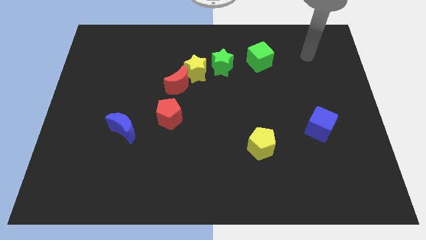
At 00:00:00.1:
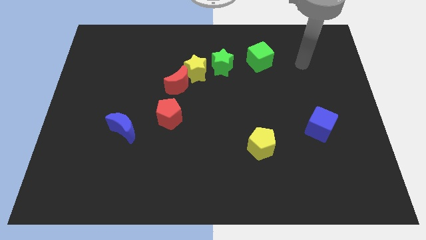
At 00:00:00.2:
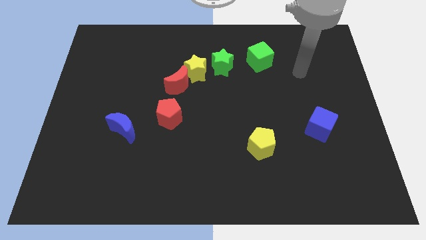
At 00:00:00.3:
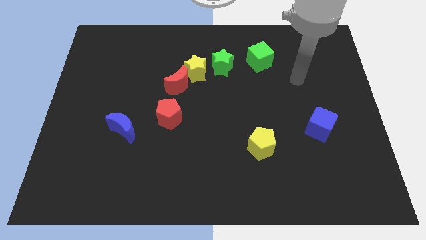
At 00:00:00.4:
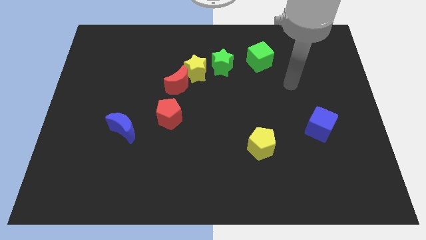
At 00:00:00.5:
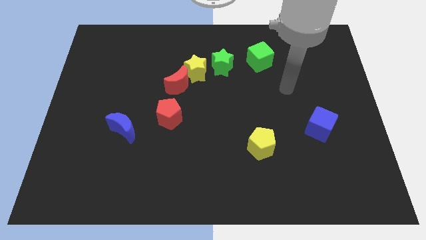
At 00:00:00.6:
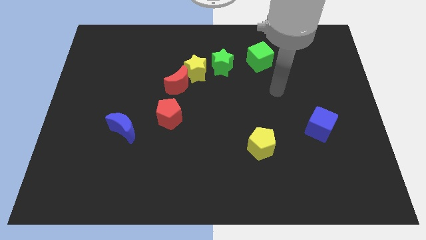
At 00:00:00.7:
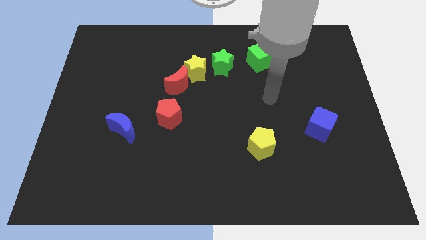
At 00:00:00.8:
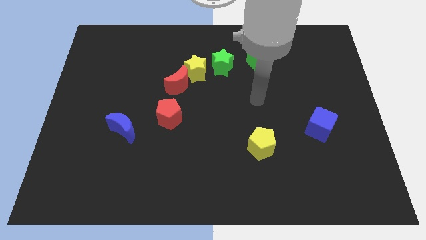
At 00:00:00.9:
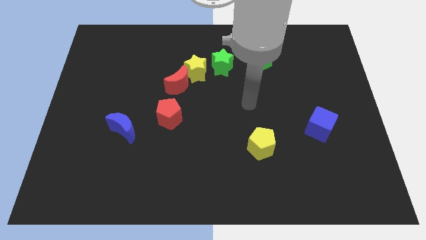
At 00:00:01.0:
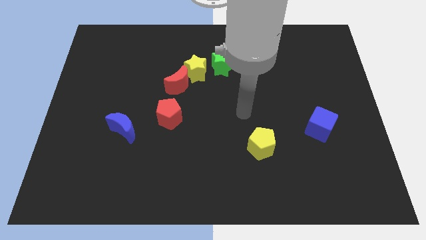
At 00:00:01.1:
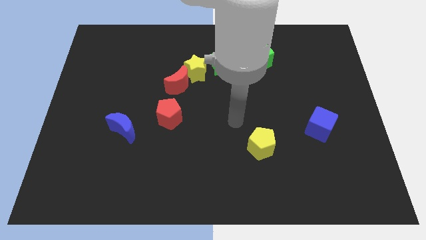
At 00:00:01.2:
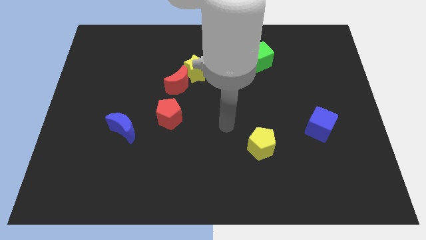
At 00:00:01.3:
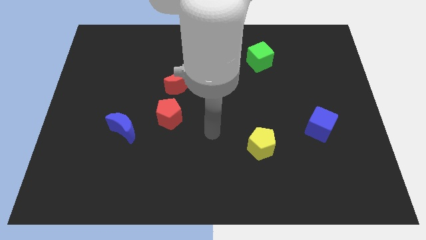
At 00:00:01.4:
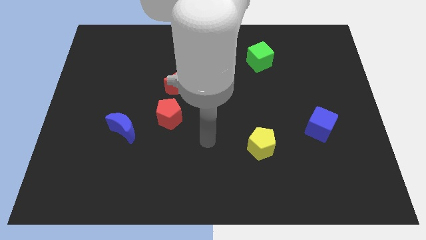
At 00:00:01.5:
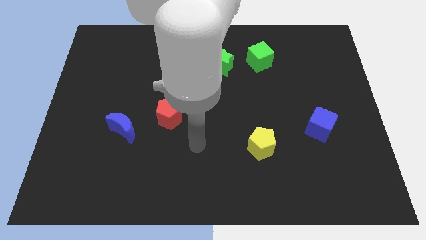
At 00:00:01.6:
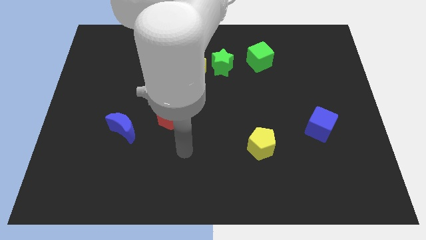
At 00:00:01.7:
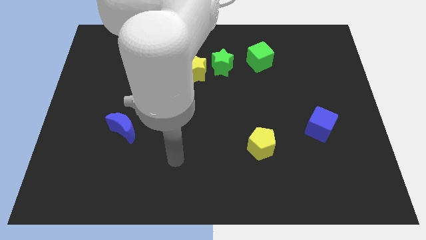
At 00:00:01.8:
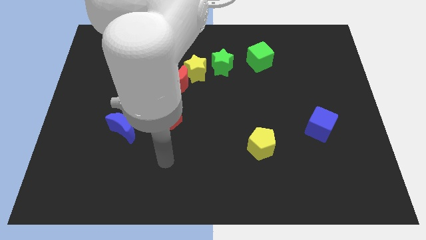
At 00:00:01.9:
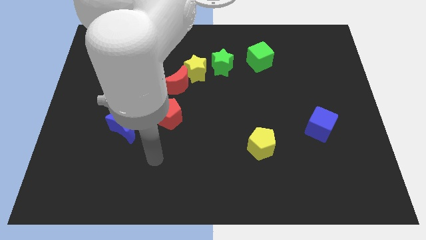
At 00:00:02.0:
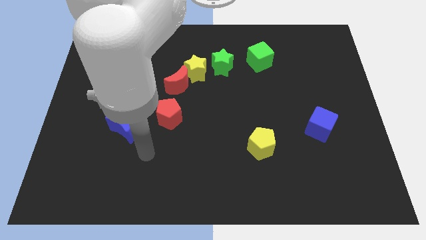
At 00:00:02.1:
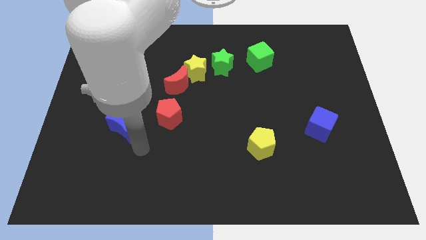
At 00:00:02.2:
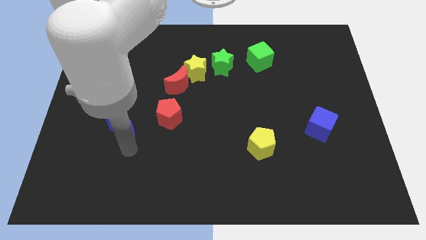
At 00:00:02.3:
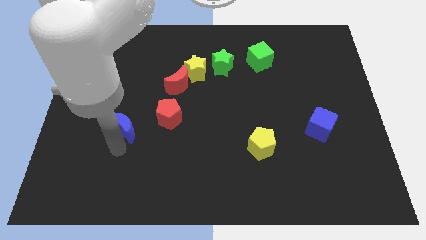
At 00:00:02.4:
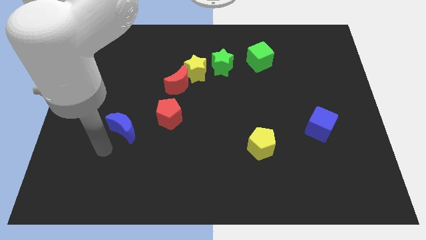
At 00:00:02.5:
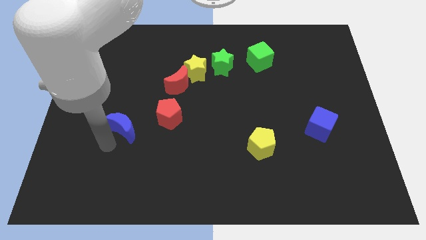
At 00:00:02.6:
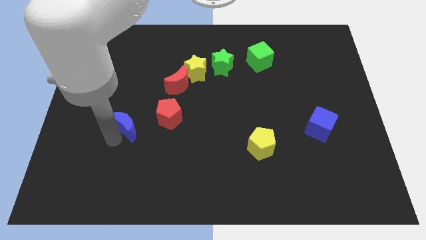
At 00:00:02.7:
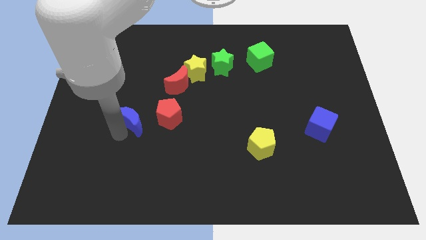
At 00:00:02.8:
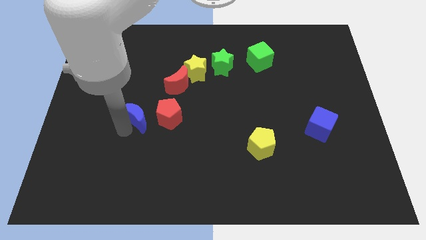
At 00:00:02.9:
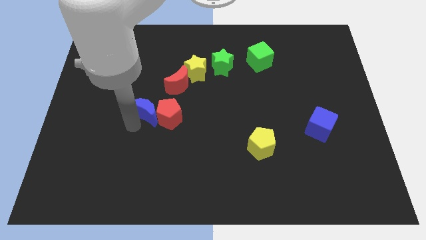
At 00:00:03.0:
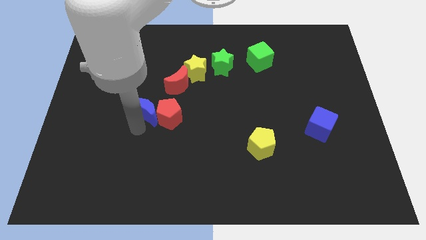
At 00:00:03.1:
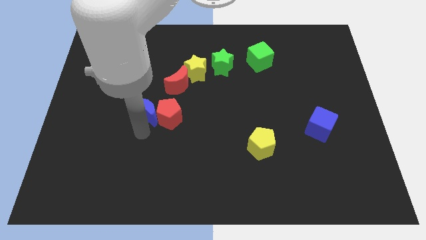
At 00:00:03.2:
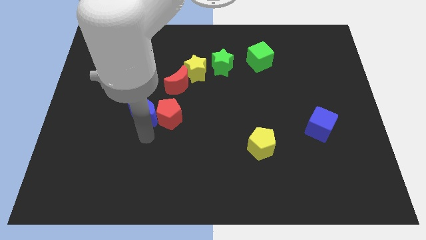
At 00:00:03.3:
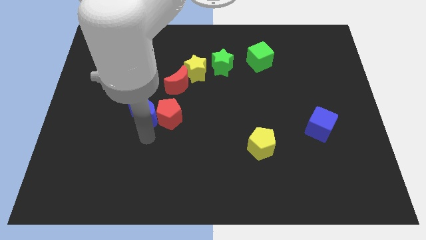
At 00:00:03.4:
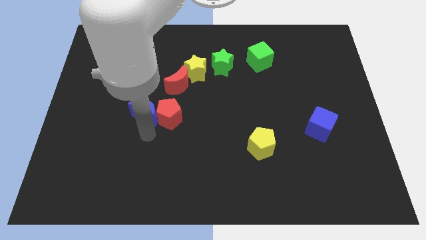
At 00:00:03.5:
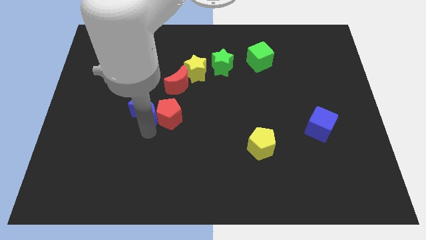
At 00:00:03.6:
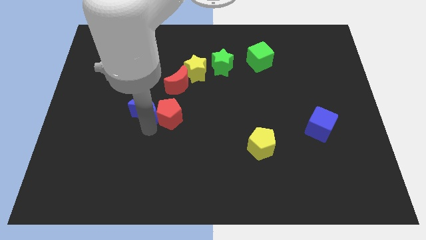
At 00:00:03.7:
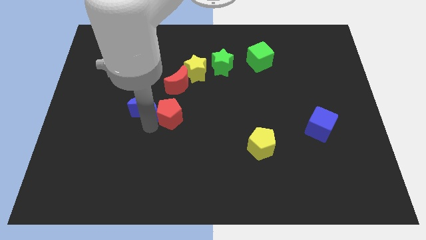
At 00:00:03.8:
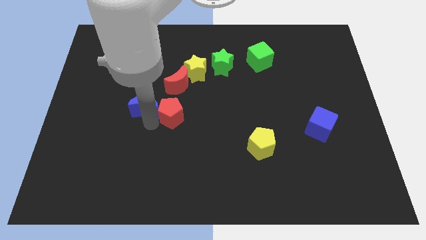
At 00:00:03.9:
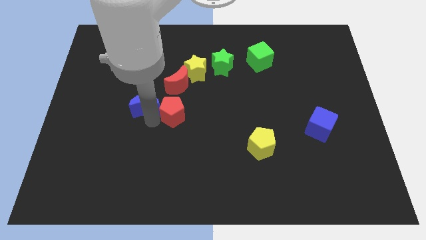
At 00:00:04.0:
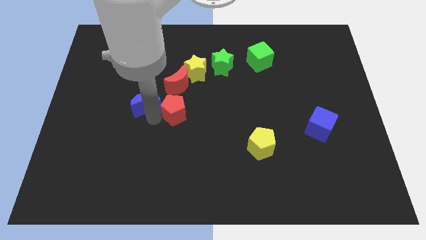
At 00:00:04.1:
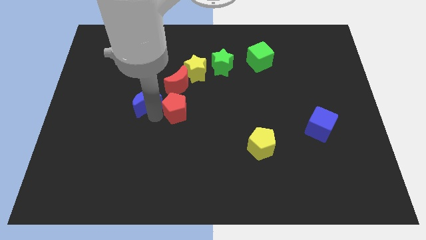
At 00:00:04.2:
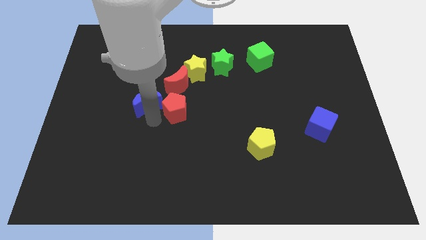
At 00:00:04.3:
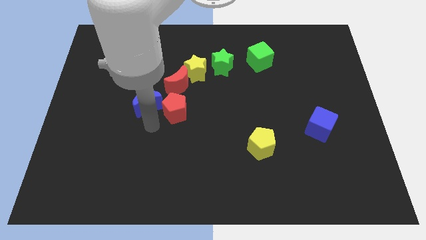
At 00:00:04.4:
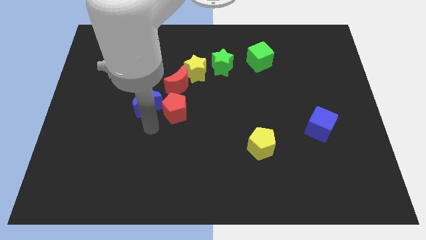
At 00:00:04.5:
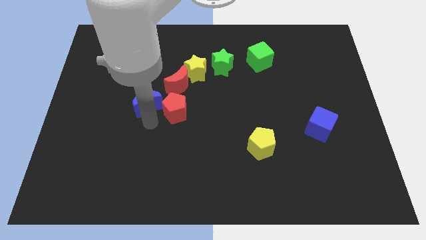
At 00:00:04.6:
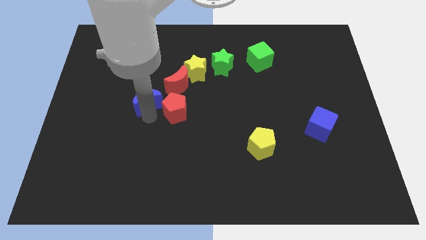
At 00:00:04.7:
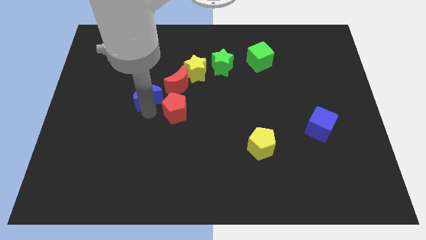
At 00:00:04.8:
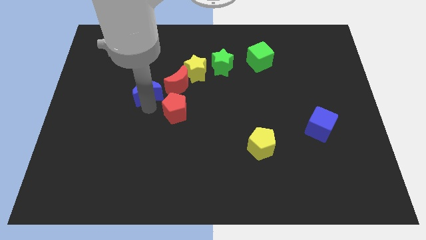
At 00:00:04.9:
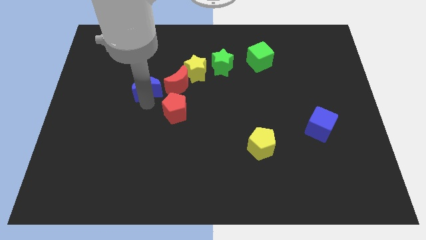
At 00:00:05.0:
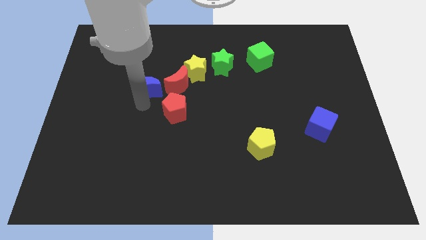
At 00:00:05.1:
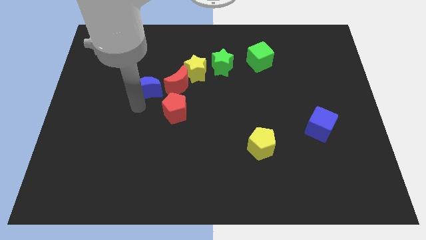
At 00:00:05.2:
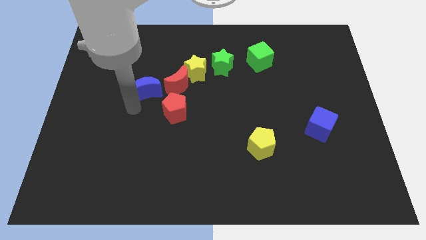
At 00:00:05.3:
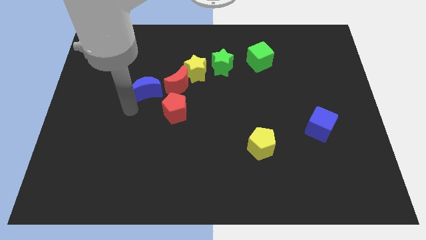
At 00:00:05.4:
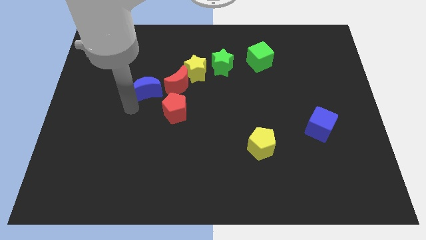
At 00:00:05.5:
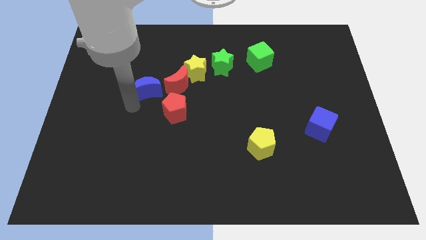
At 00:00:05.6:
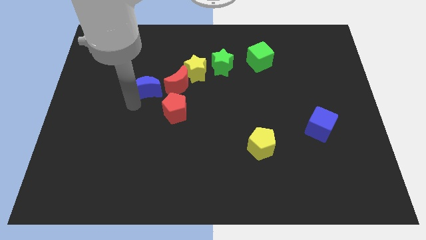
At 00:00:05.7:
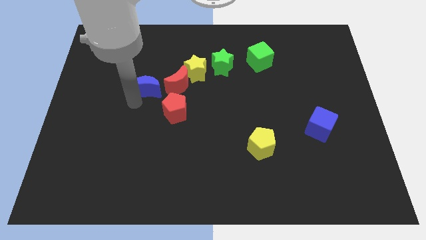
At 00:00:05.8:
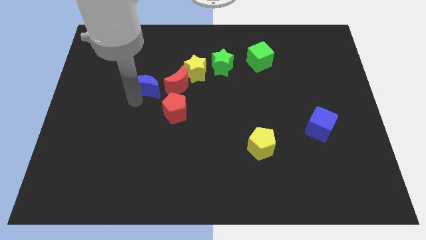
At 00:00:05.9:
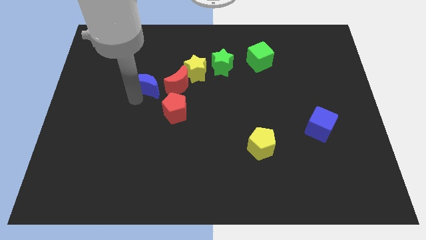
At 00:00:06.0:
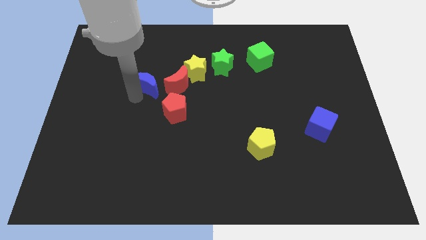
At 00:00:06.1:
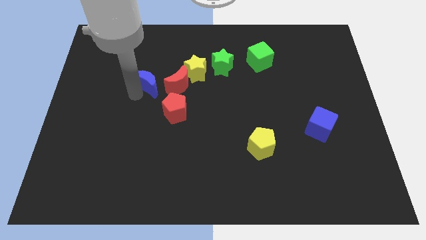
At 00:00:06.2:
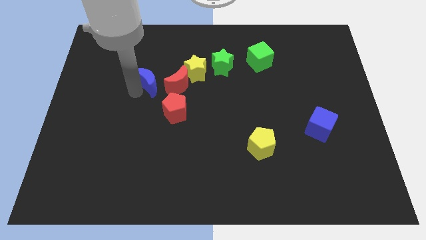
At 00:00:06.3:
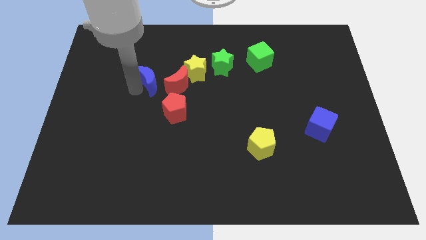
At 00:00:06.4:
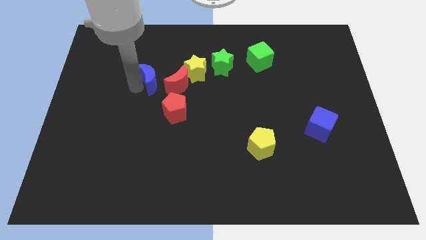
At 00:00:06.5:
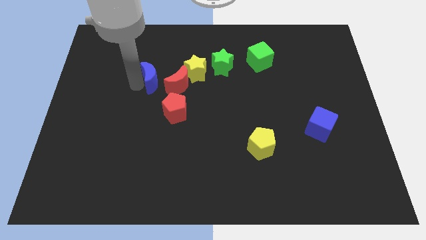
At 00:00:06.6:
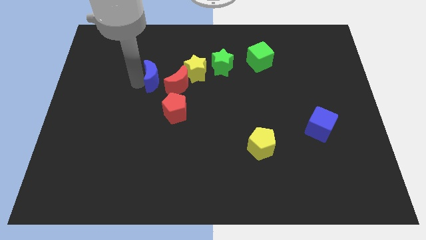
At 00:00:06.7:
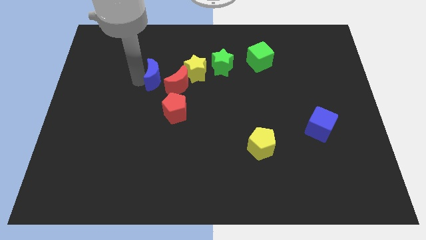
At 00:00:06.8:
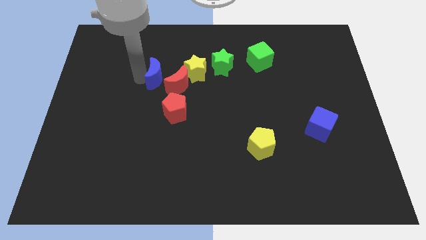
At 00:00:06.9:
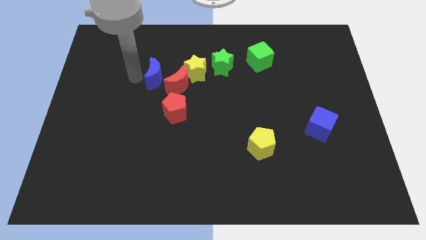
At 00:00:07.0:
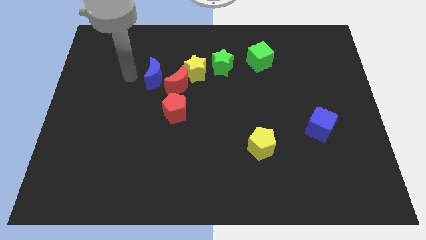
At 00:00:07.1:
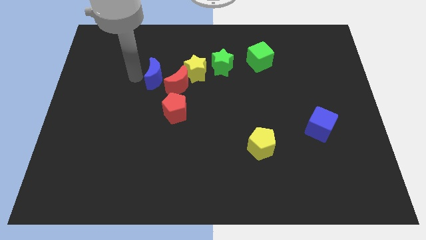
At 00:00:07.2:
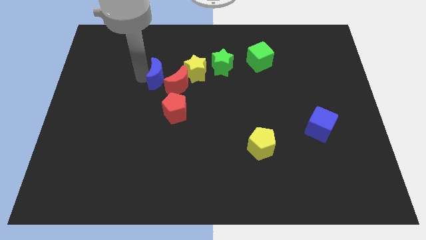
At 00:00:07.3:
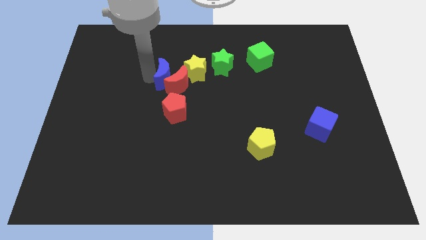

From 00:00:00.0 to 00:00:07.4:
move the blue moon to the top of the red pentagon
